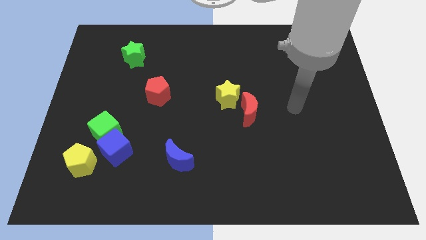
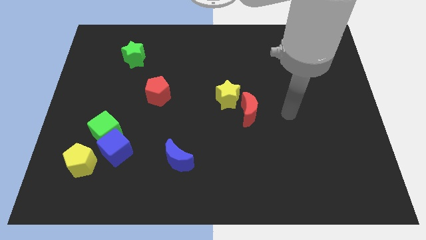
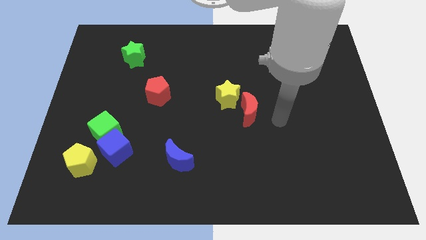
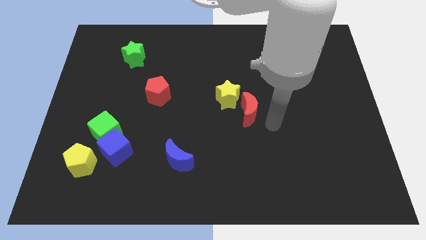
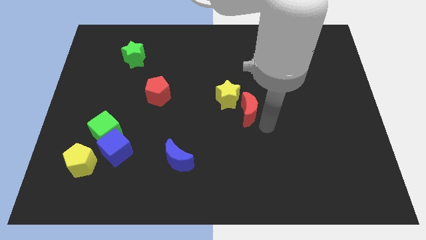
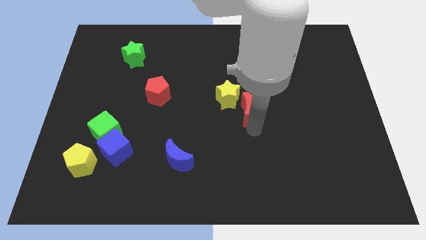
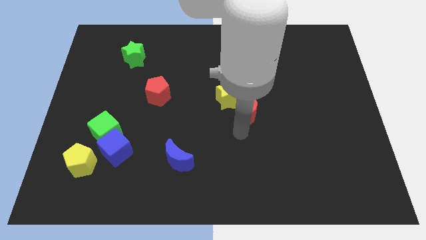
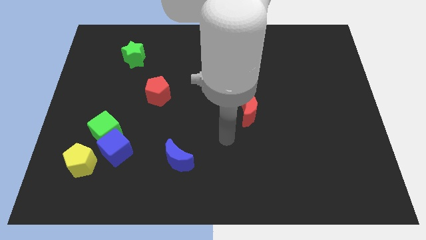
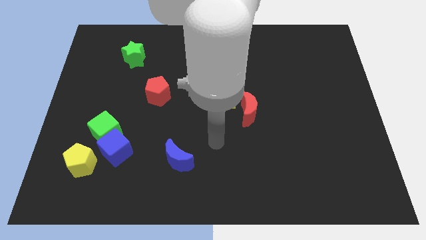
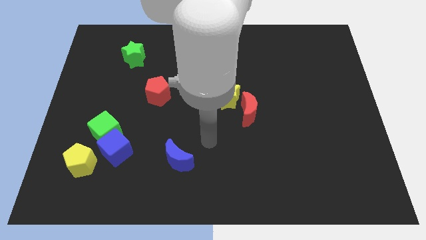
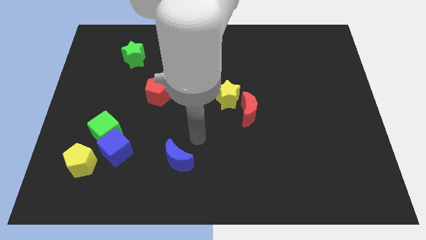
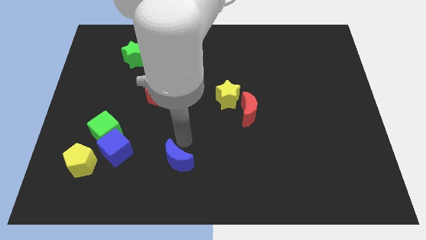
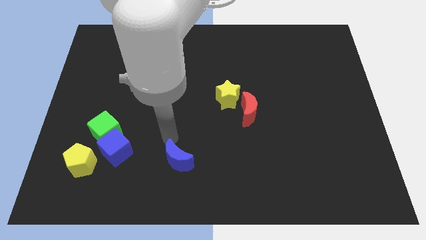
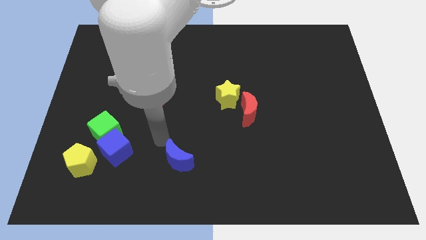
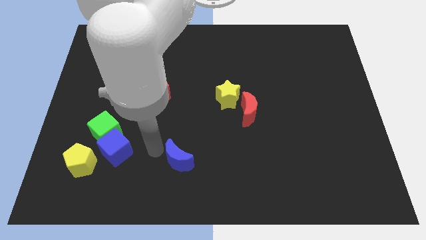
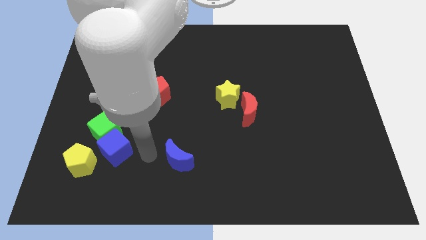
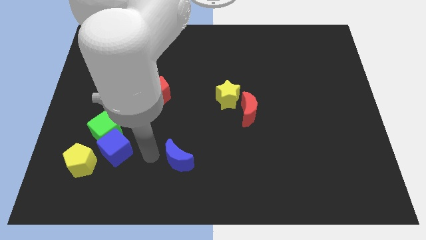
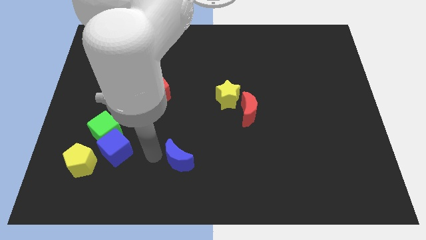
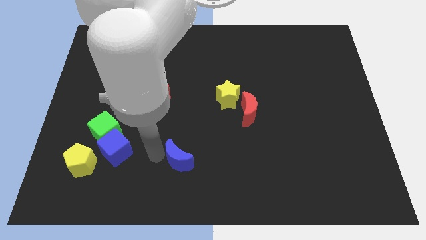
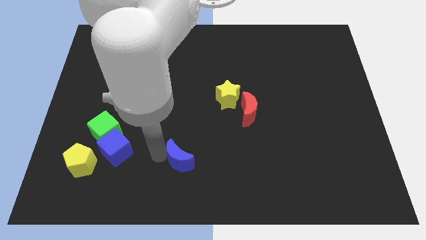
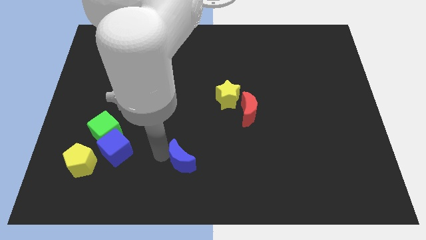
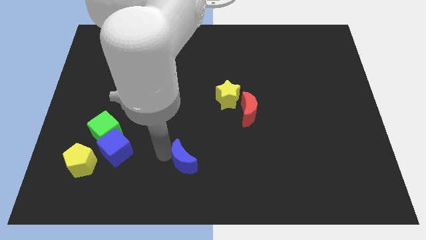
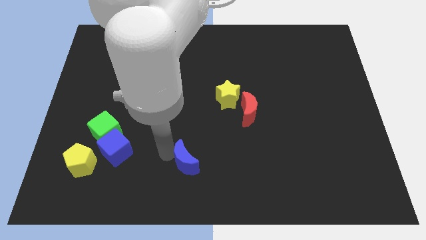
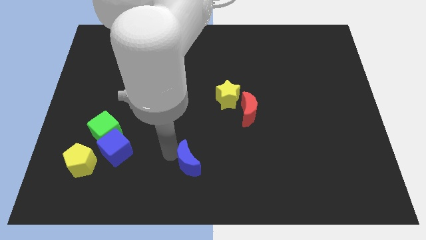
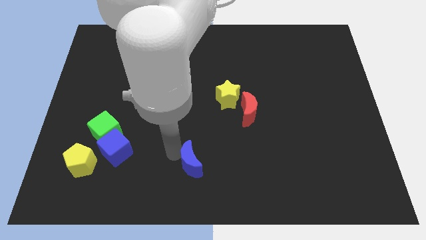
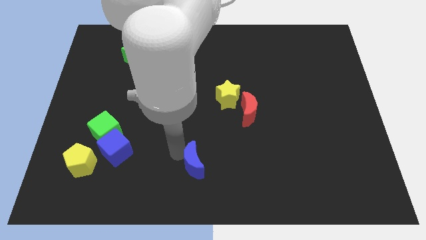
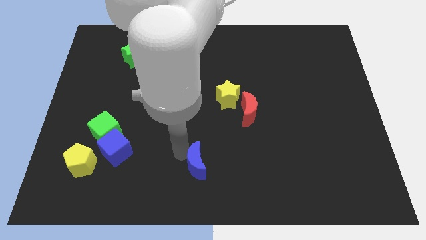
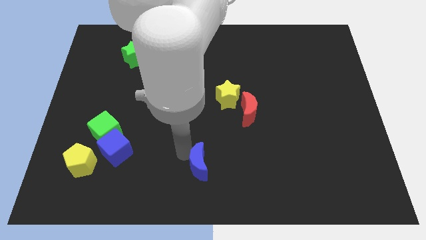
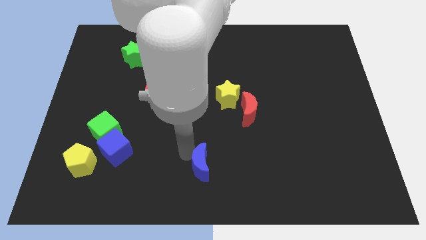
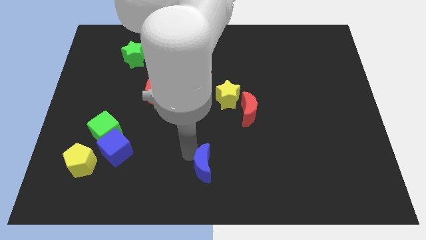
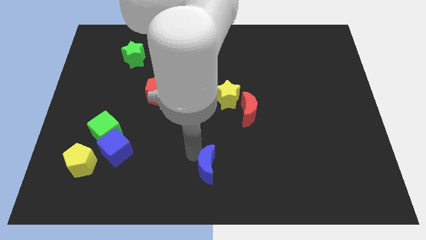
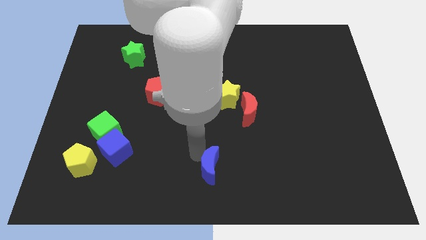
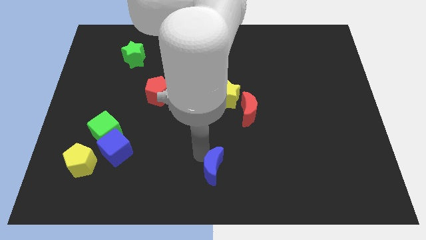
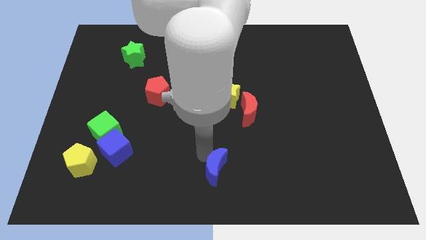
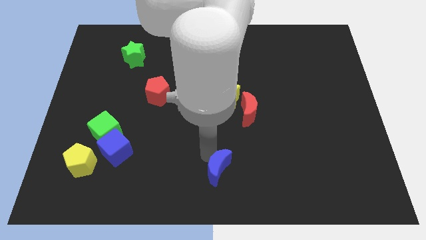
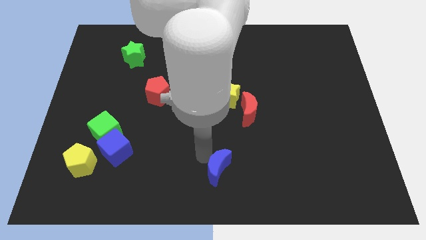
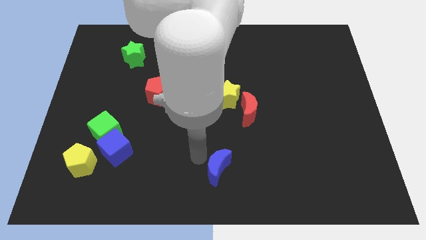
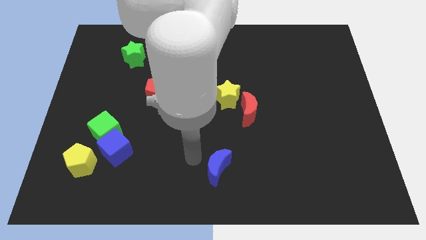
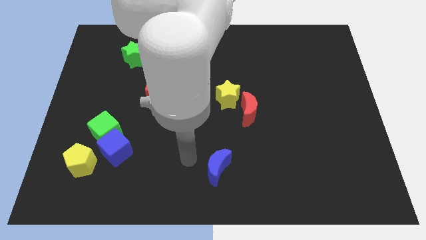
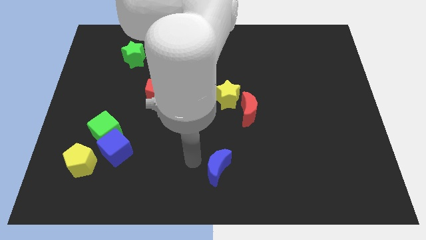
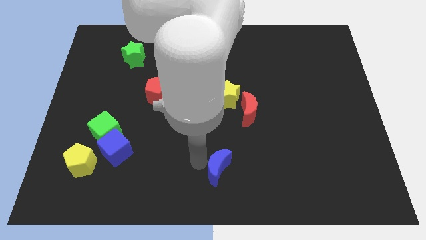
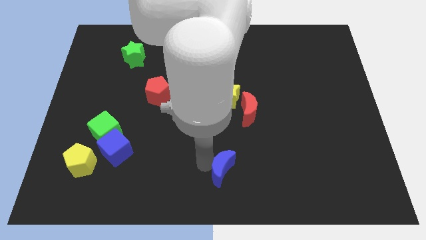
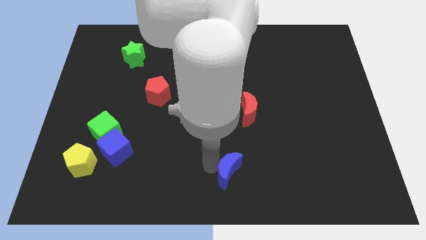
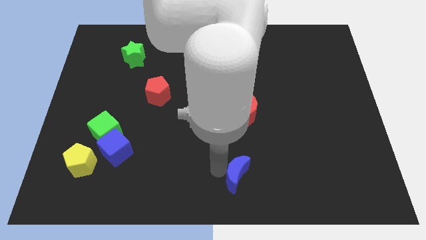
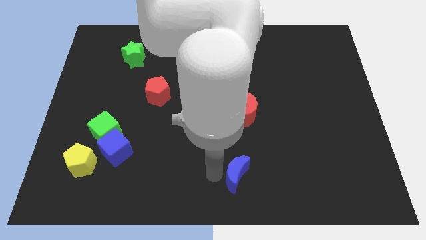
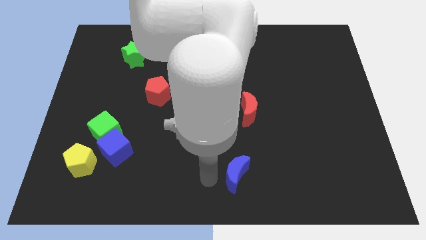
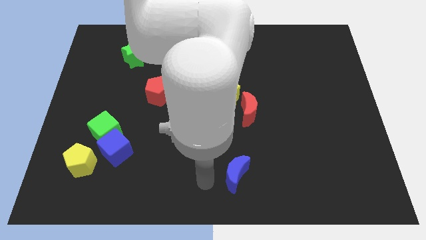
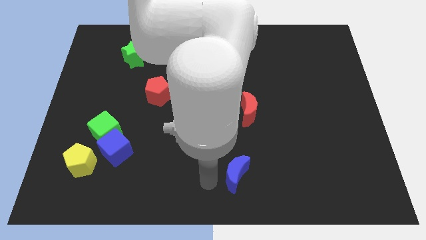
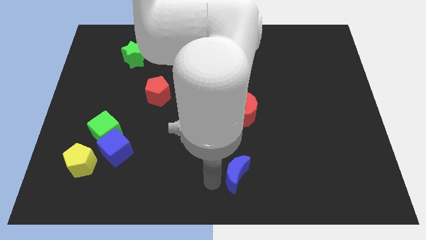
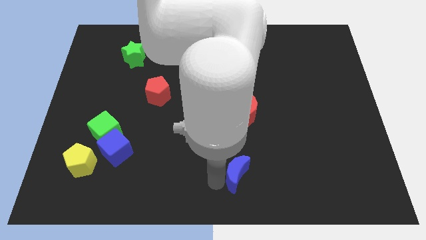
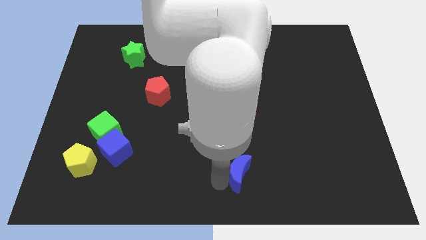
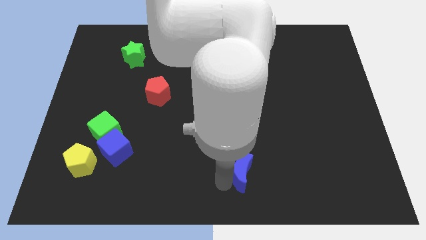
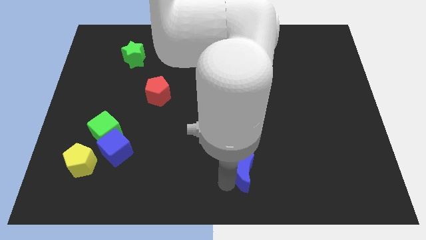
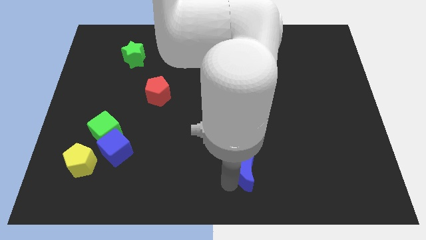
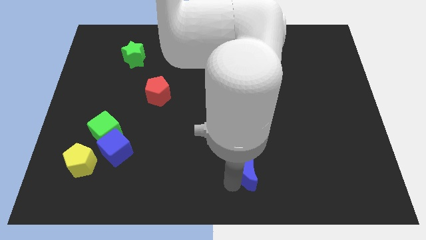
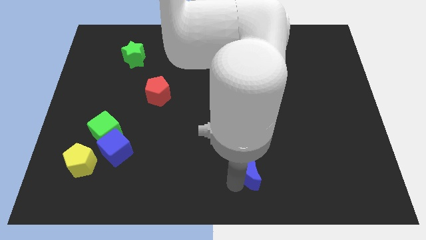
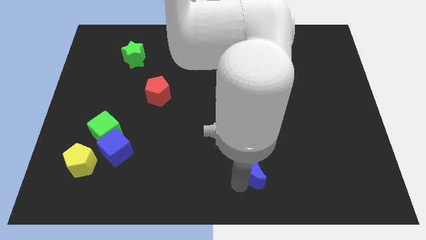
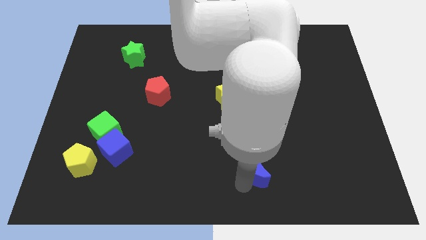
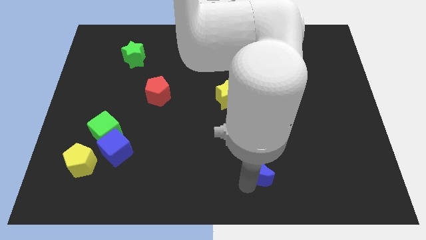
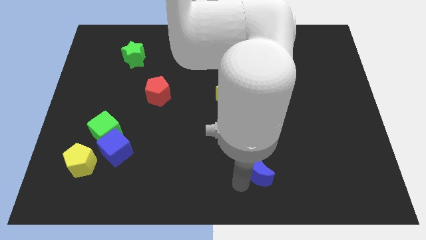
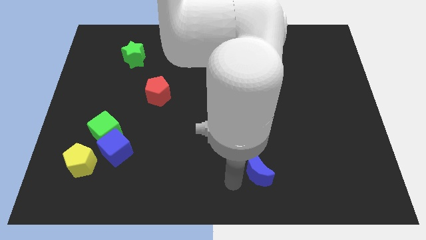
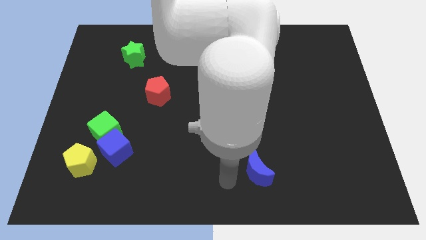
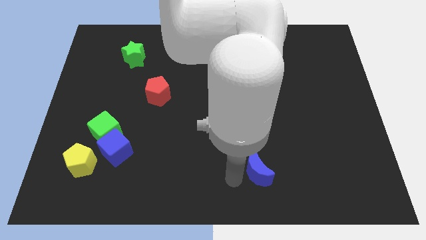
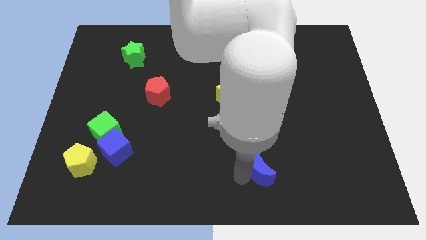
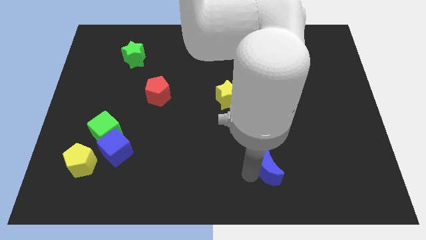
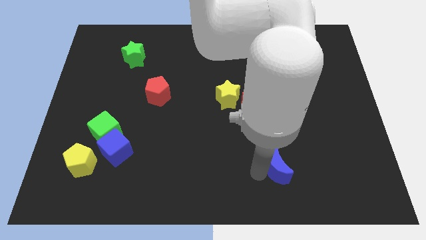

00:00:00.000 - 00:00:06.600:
move the blue moon to the right

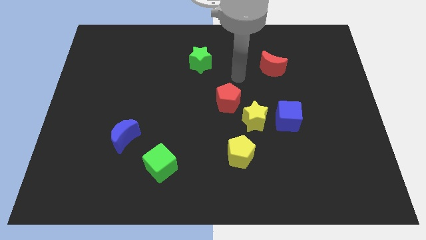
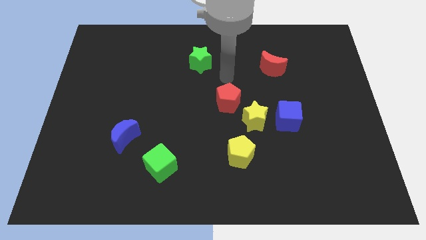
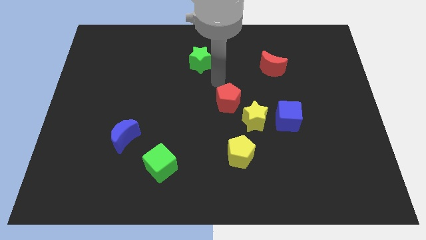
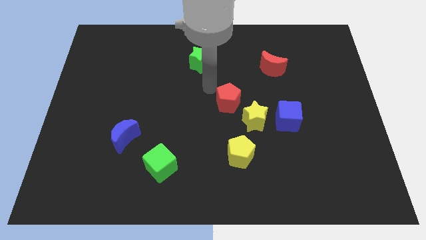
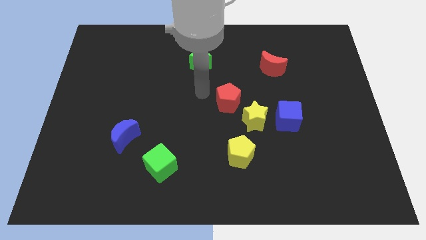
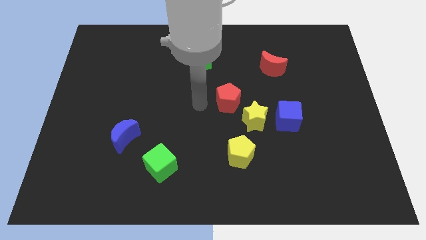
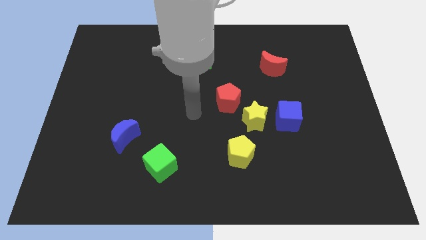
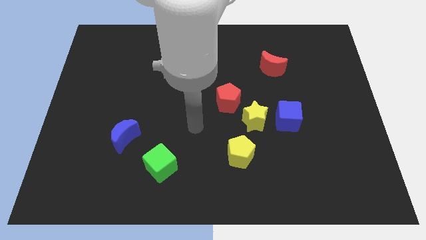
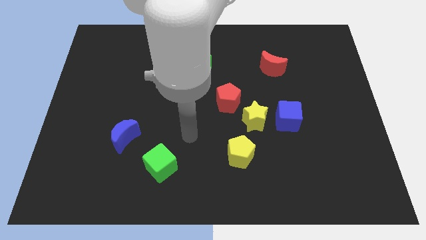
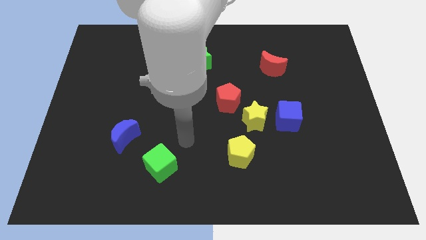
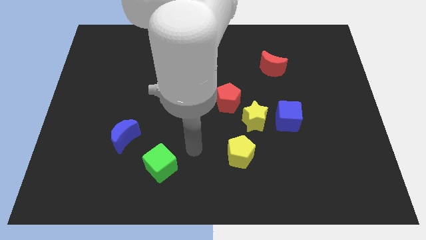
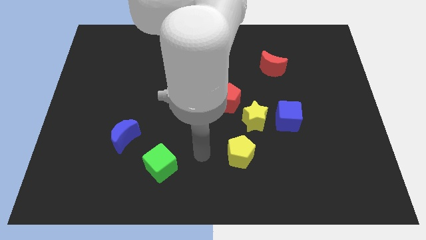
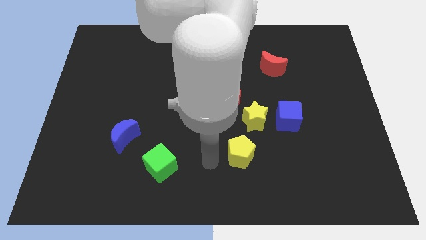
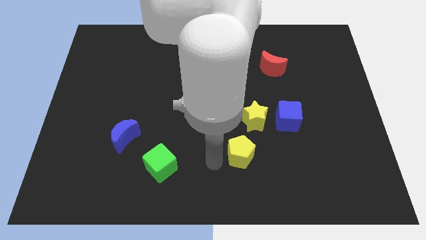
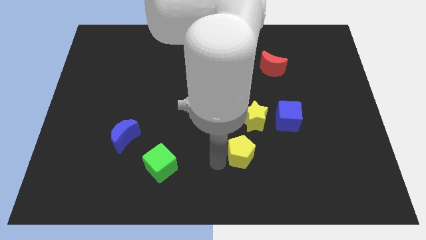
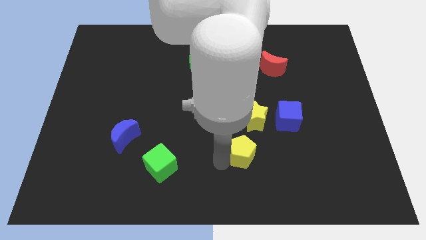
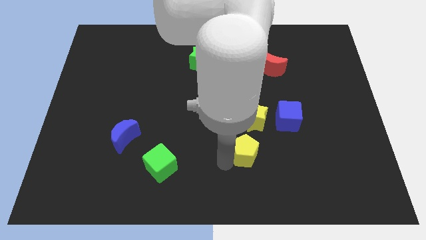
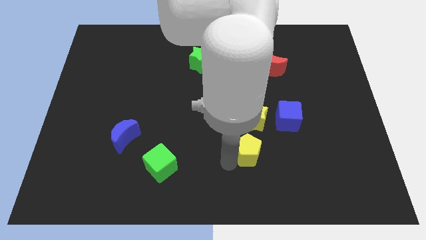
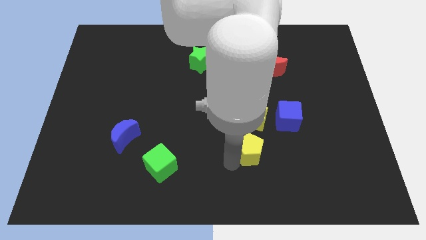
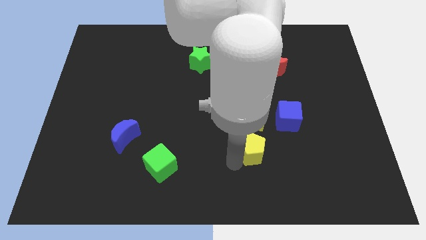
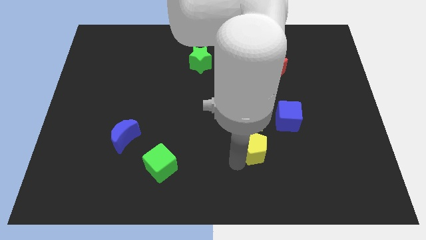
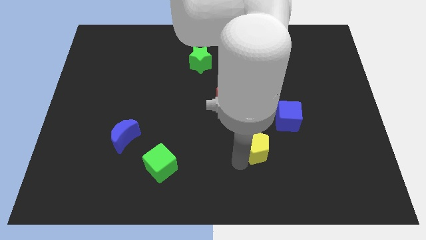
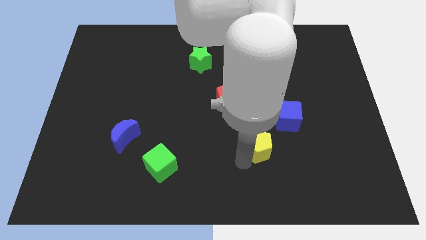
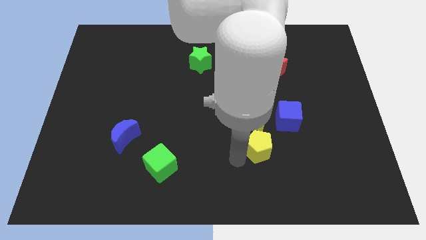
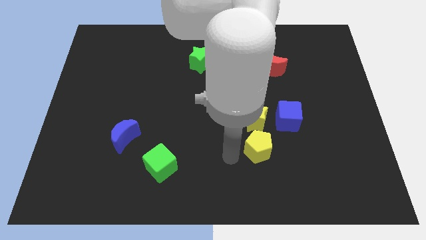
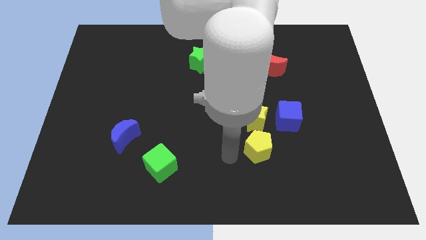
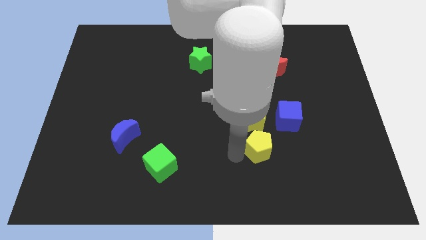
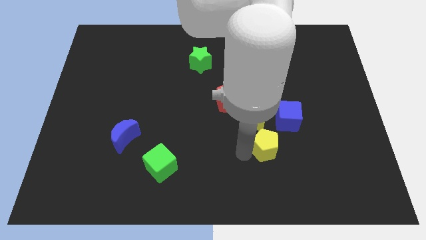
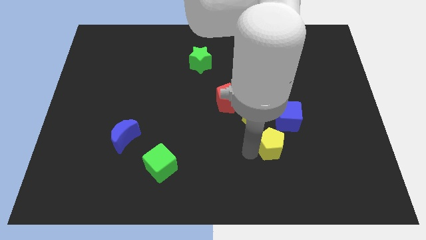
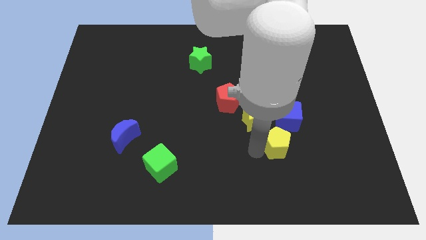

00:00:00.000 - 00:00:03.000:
slide the yellow pentagon to the right slightly
